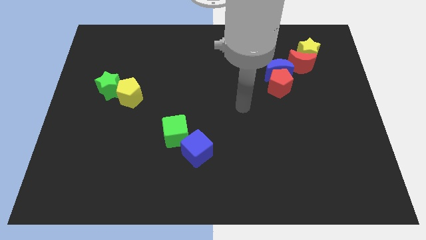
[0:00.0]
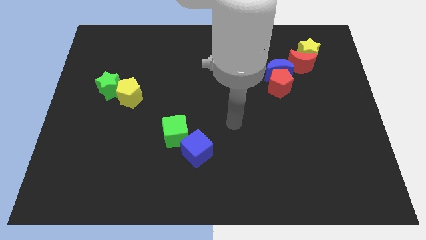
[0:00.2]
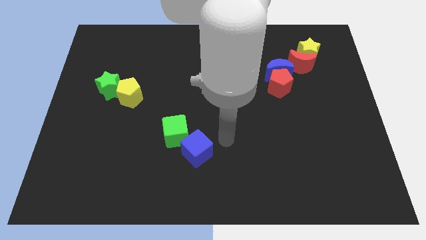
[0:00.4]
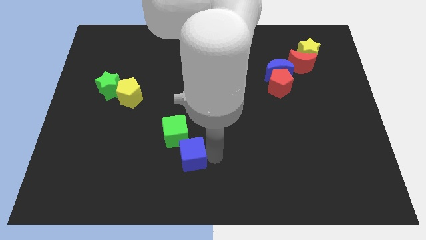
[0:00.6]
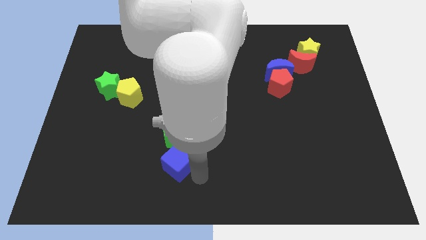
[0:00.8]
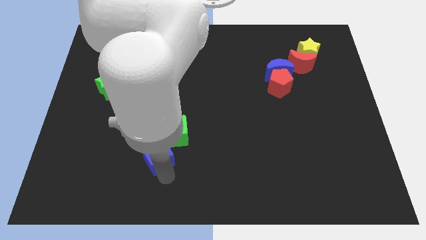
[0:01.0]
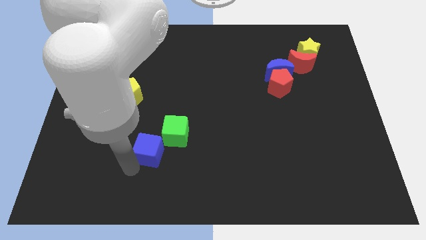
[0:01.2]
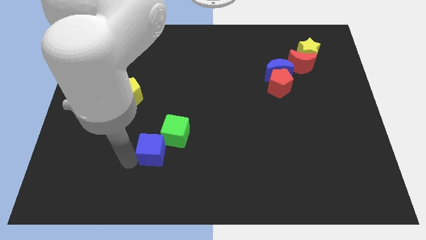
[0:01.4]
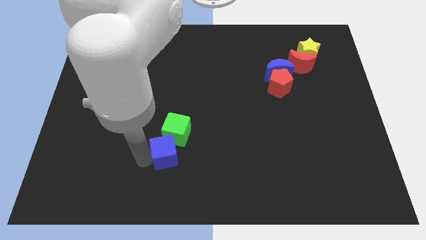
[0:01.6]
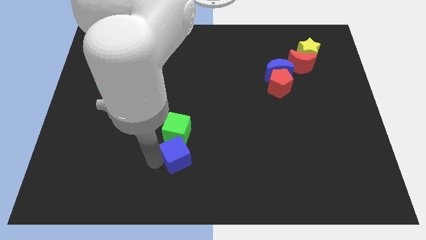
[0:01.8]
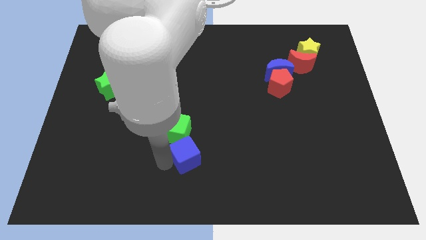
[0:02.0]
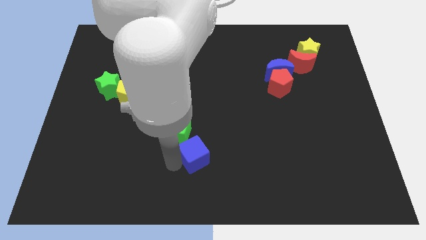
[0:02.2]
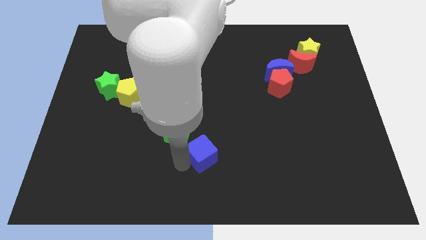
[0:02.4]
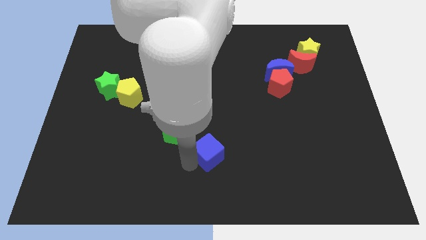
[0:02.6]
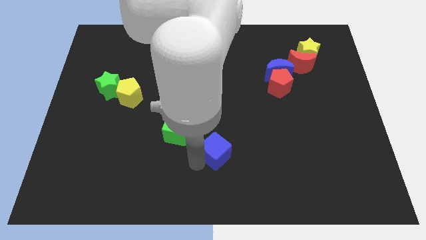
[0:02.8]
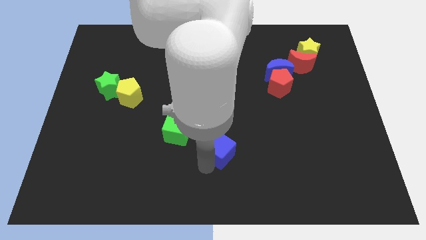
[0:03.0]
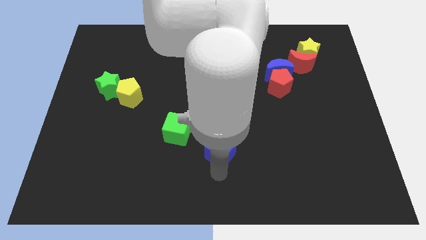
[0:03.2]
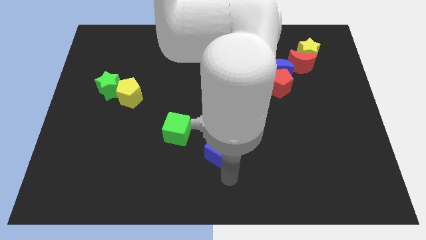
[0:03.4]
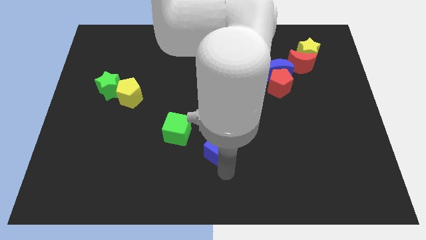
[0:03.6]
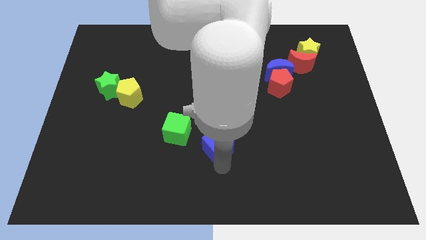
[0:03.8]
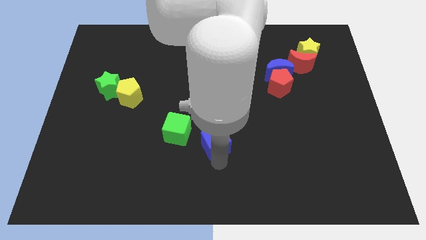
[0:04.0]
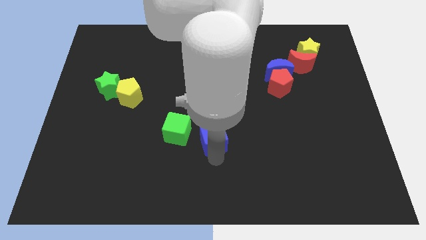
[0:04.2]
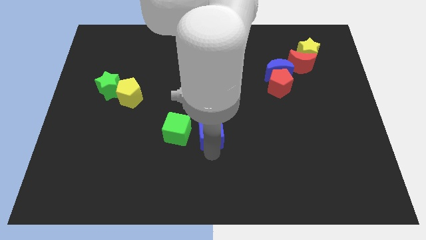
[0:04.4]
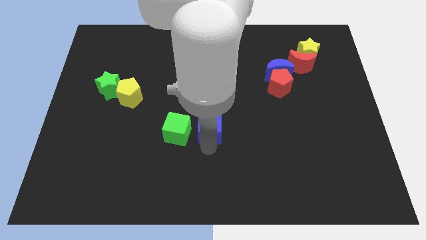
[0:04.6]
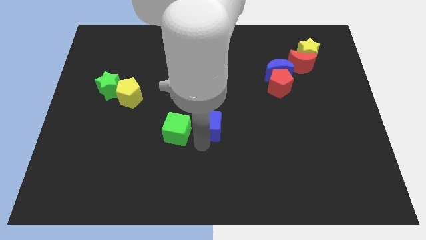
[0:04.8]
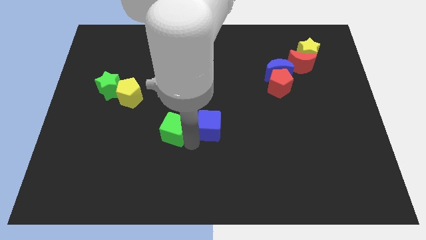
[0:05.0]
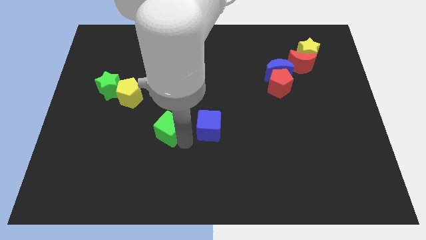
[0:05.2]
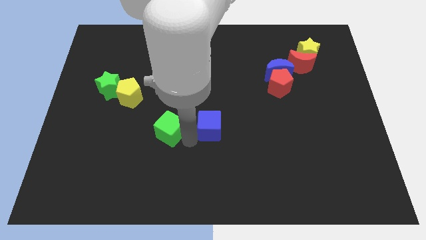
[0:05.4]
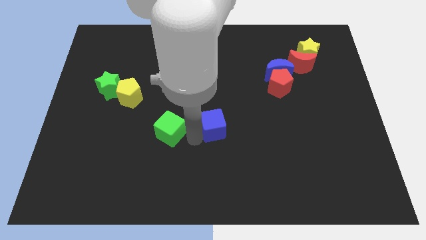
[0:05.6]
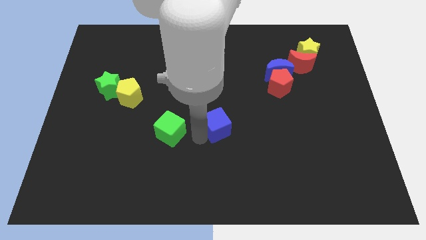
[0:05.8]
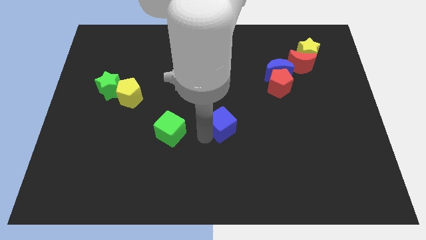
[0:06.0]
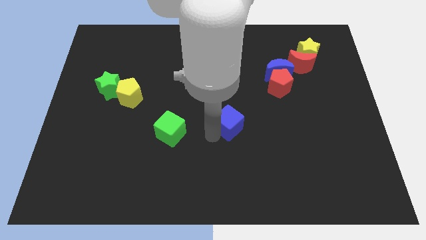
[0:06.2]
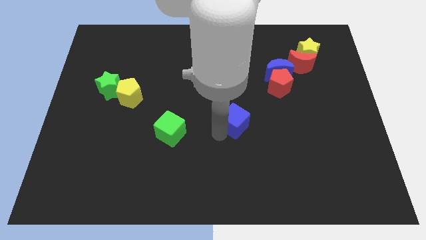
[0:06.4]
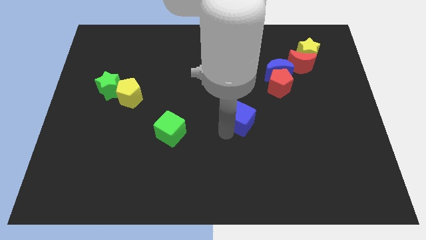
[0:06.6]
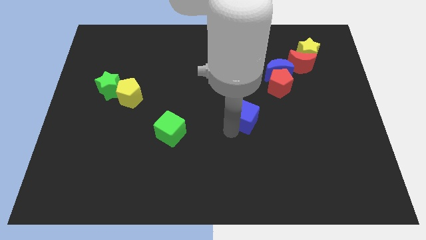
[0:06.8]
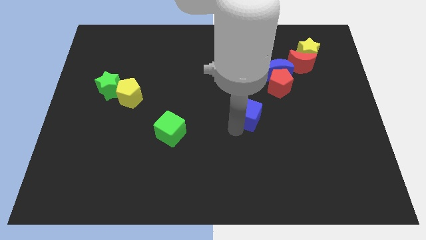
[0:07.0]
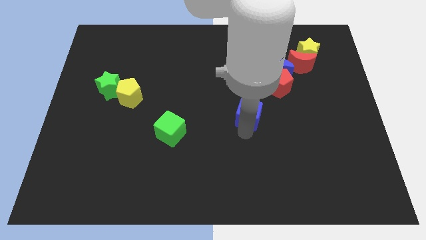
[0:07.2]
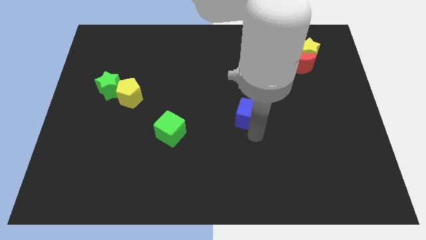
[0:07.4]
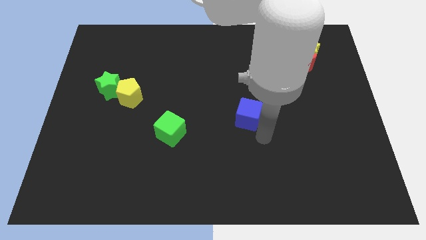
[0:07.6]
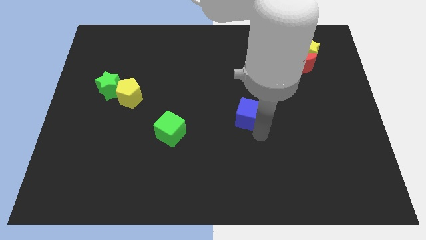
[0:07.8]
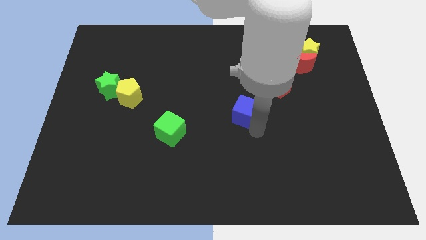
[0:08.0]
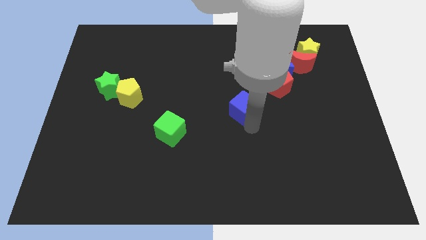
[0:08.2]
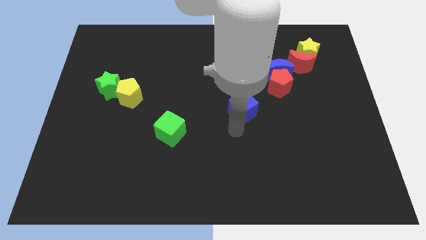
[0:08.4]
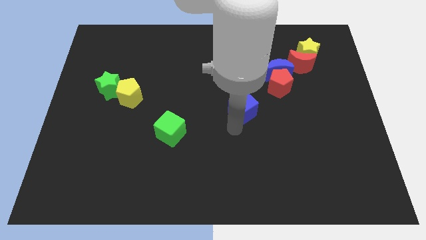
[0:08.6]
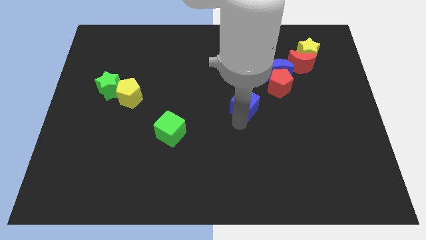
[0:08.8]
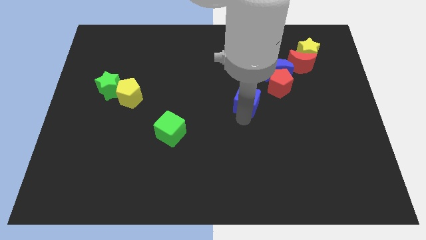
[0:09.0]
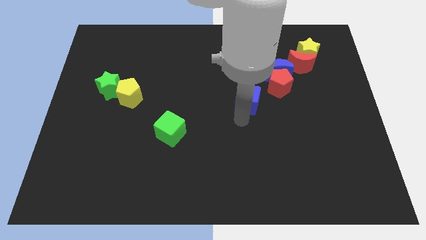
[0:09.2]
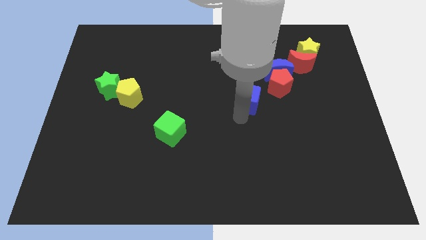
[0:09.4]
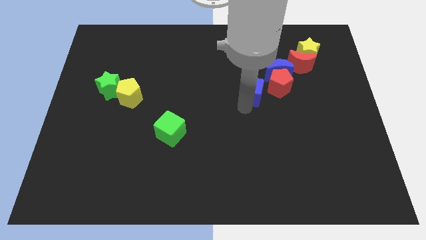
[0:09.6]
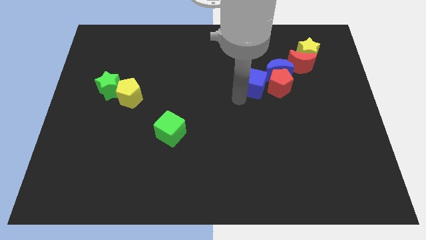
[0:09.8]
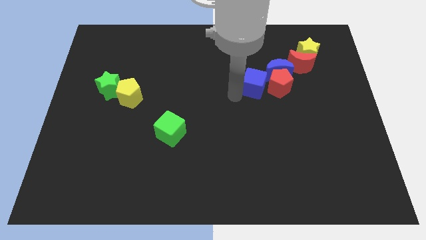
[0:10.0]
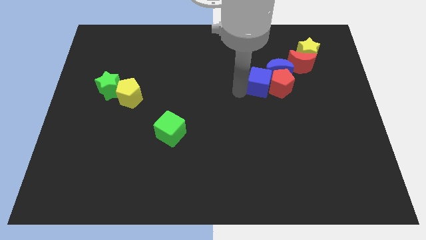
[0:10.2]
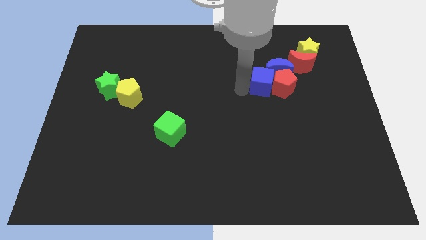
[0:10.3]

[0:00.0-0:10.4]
put the blue cube towards the blue moon

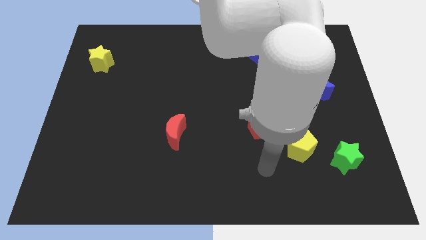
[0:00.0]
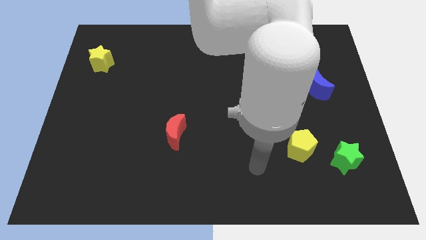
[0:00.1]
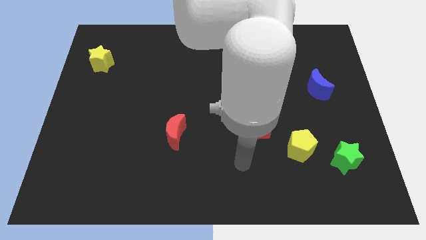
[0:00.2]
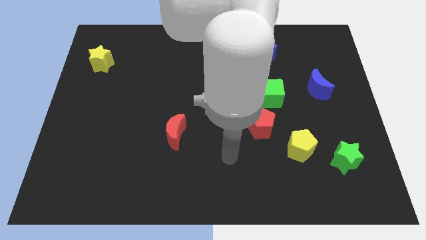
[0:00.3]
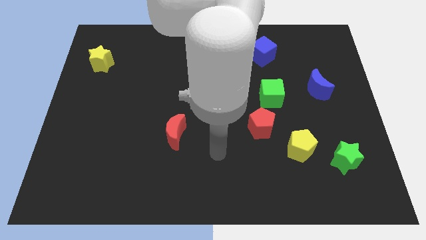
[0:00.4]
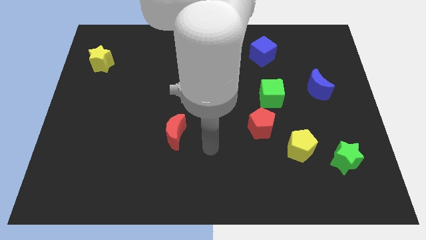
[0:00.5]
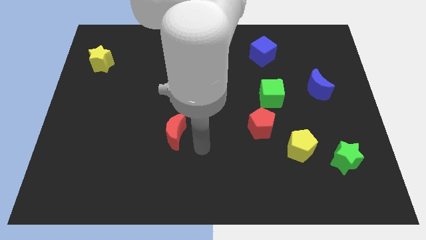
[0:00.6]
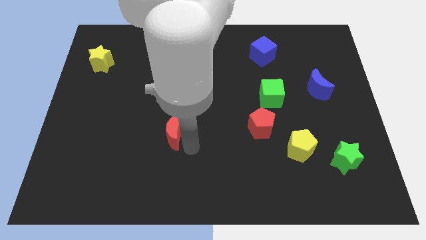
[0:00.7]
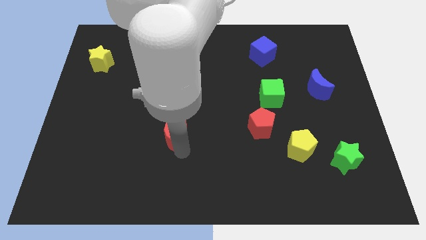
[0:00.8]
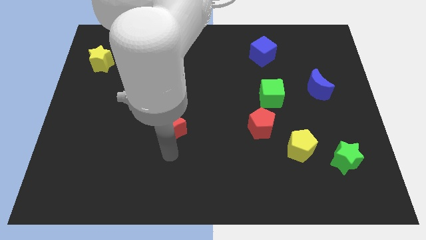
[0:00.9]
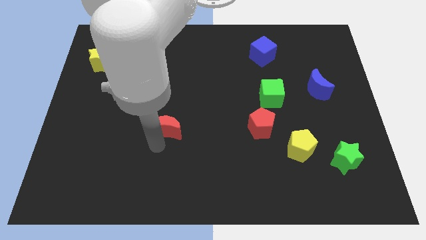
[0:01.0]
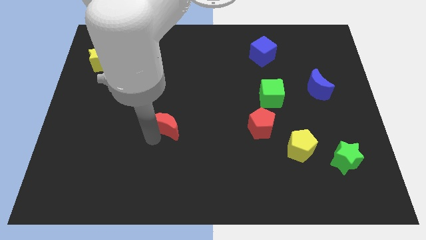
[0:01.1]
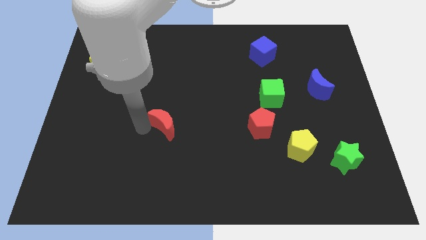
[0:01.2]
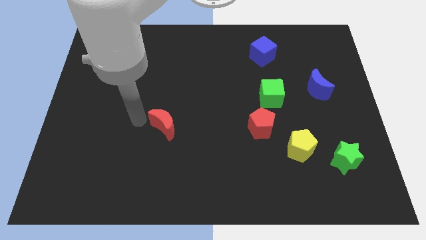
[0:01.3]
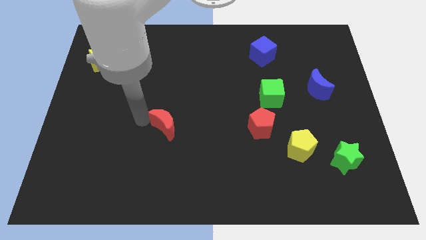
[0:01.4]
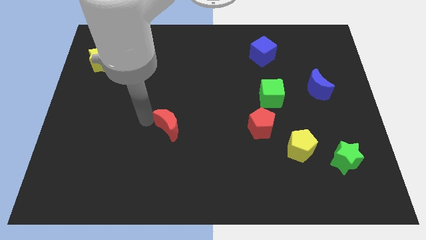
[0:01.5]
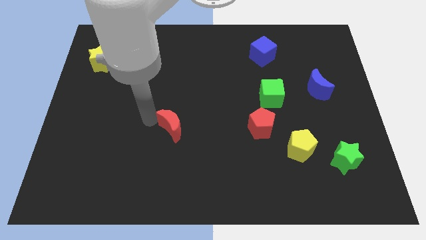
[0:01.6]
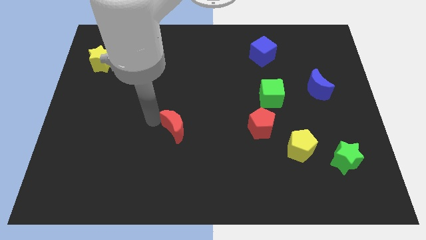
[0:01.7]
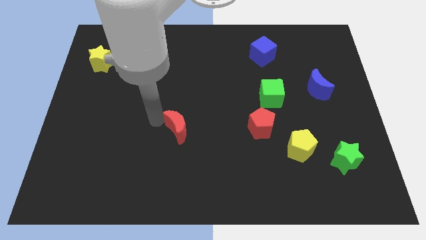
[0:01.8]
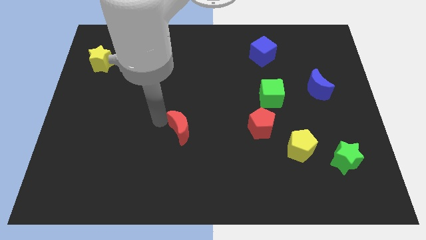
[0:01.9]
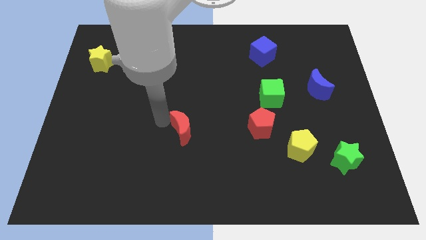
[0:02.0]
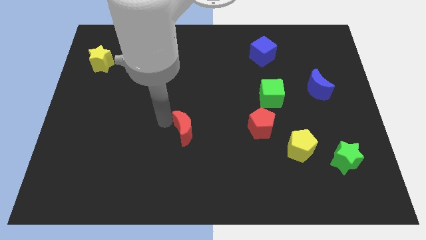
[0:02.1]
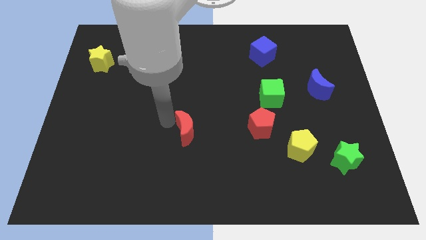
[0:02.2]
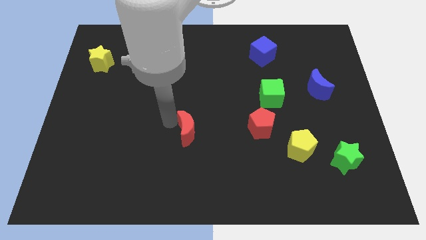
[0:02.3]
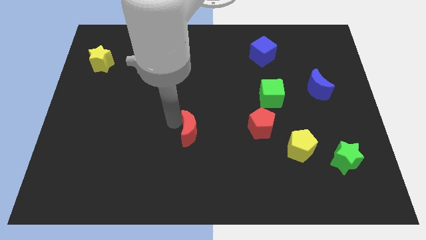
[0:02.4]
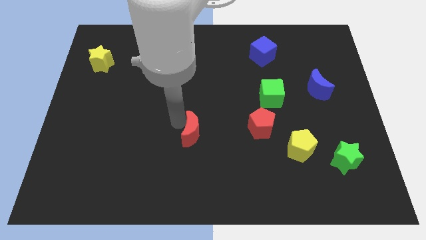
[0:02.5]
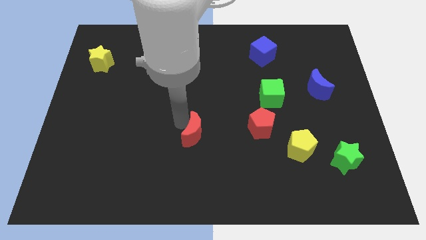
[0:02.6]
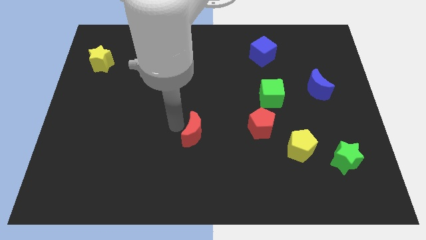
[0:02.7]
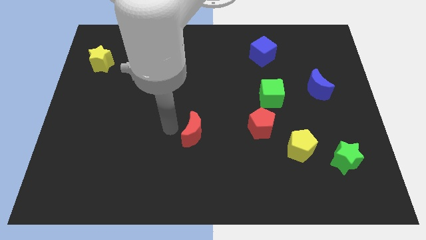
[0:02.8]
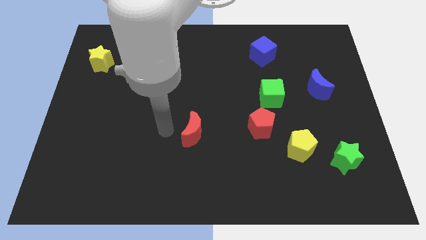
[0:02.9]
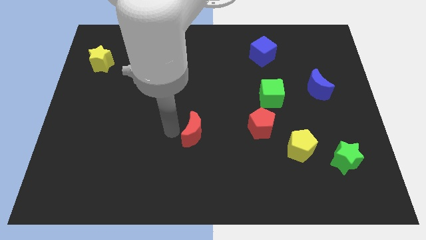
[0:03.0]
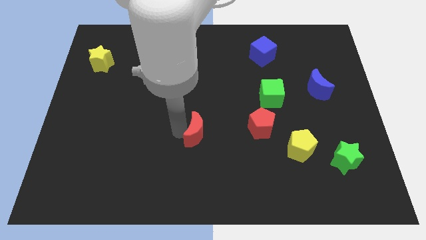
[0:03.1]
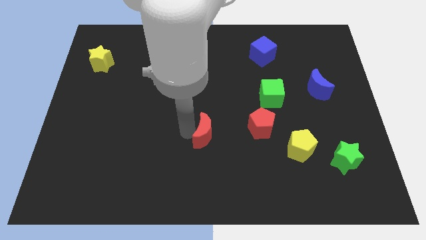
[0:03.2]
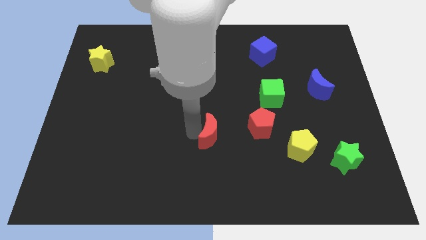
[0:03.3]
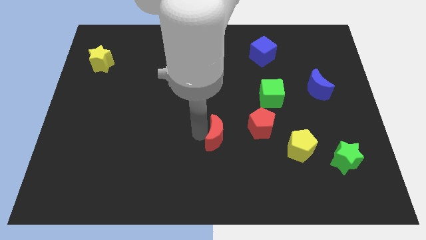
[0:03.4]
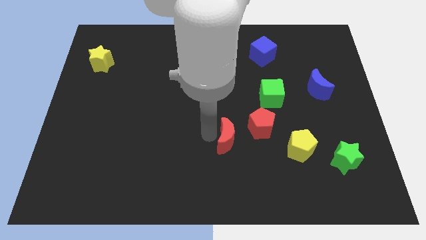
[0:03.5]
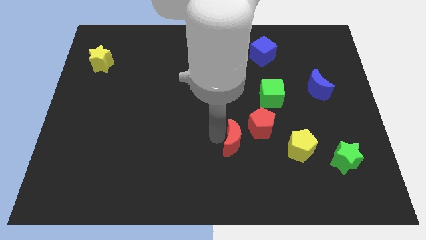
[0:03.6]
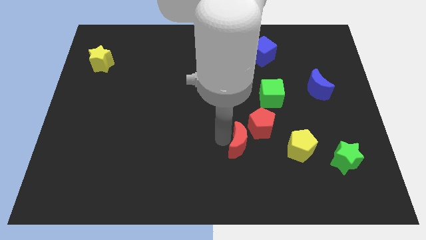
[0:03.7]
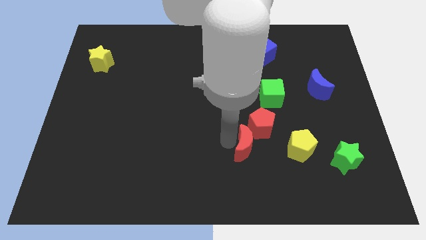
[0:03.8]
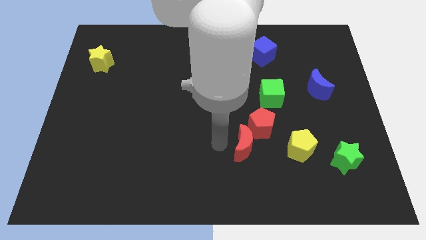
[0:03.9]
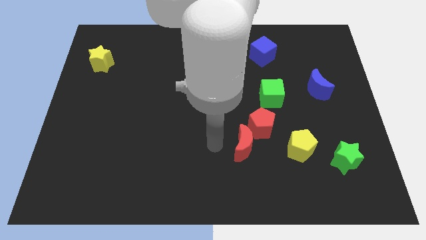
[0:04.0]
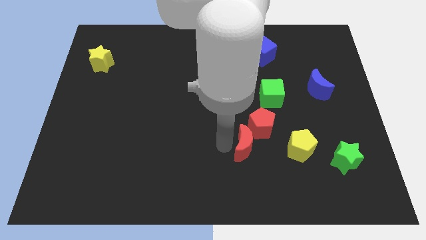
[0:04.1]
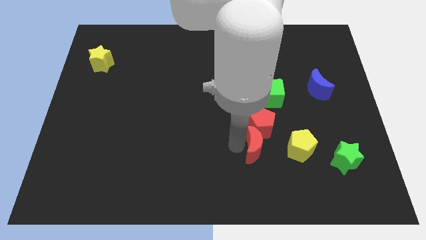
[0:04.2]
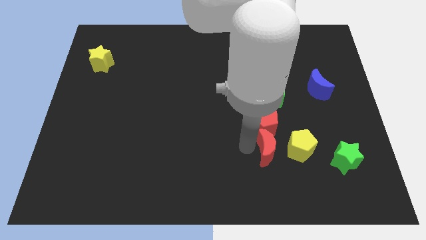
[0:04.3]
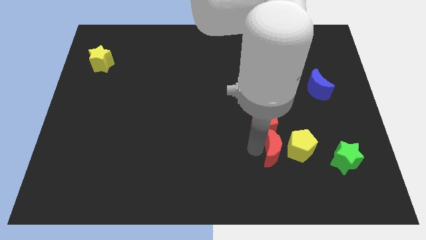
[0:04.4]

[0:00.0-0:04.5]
move the red moon close to the yellow pentagon
